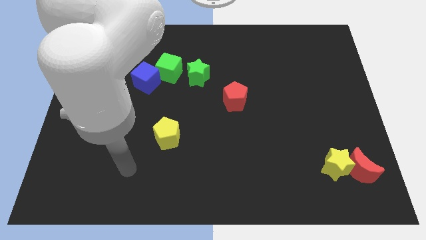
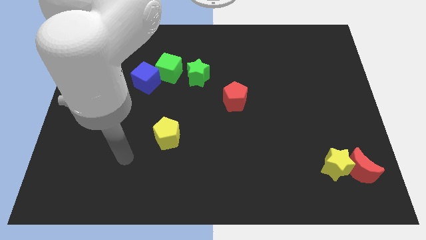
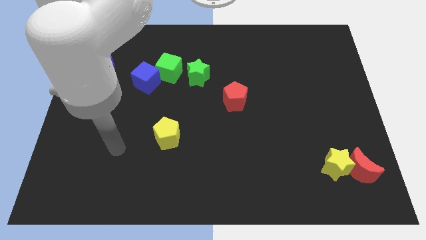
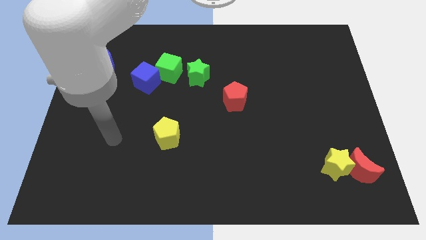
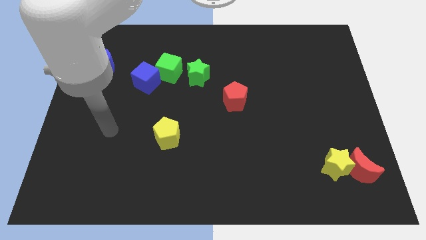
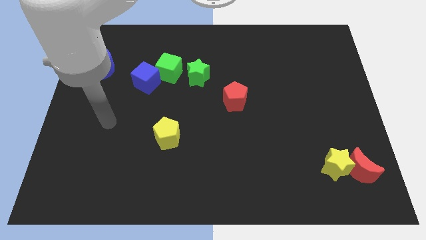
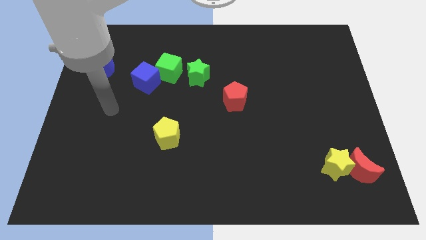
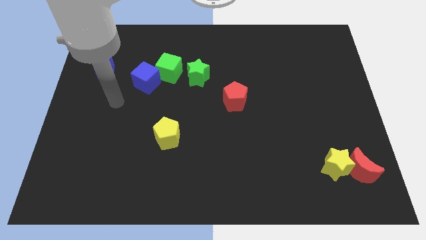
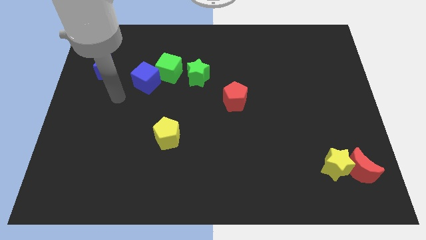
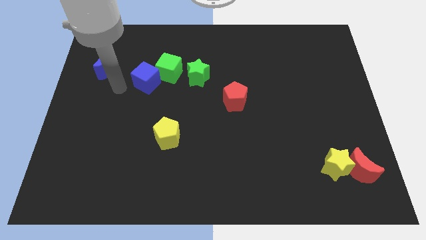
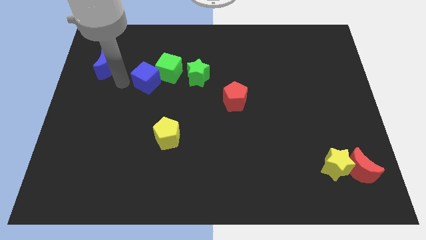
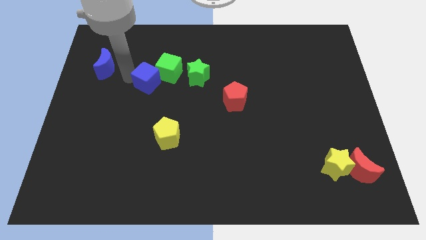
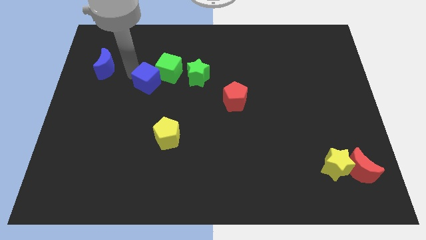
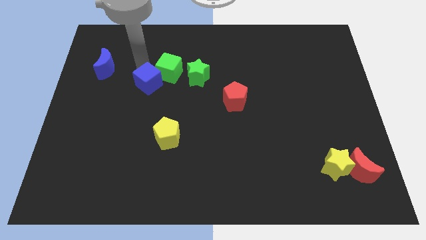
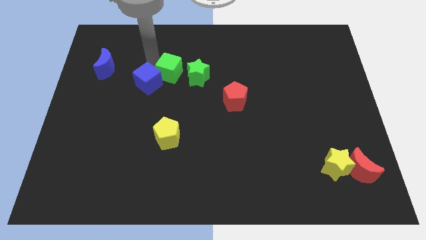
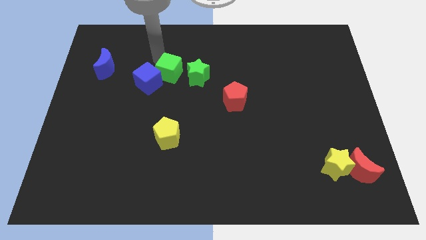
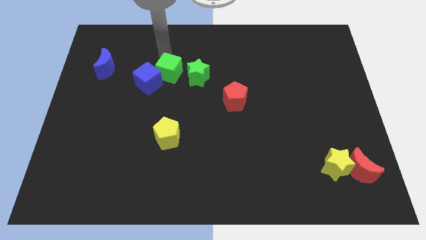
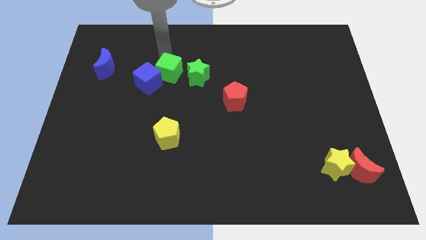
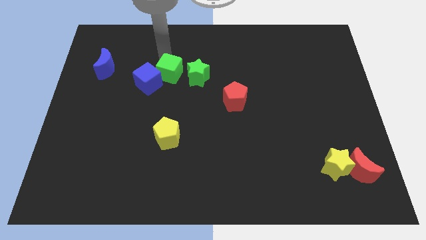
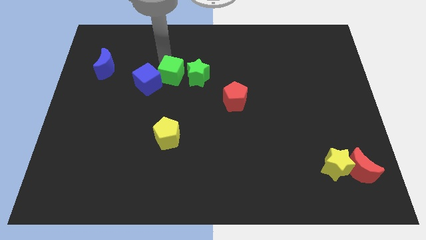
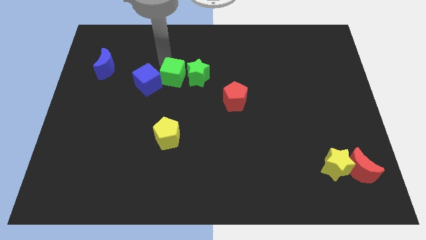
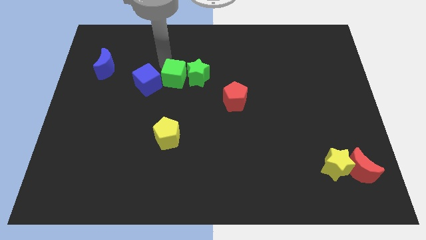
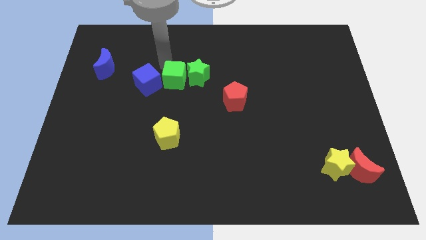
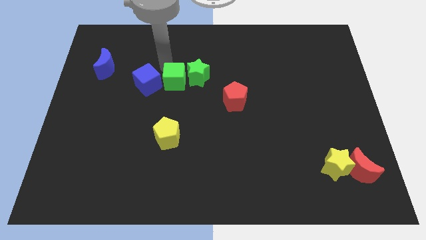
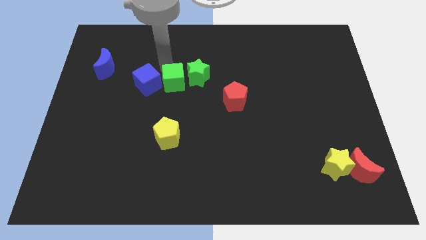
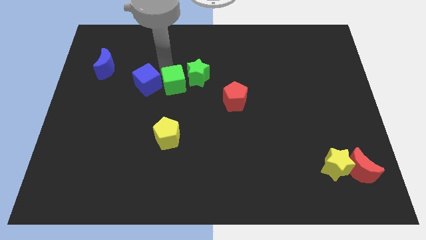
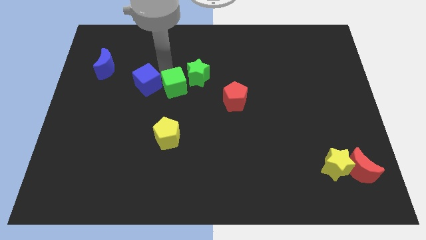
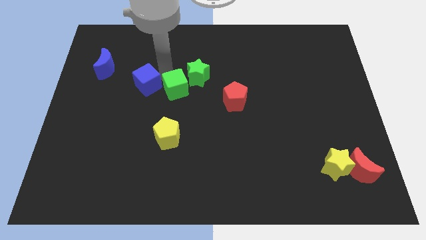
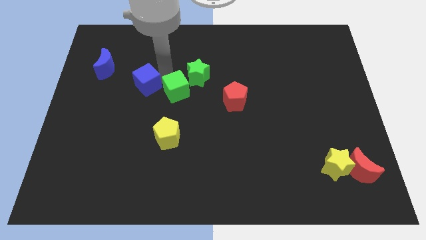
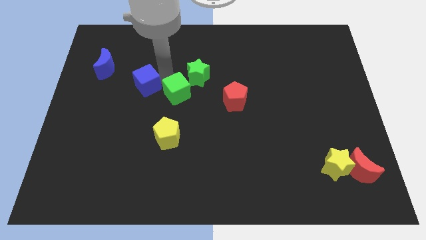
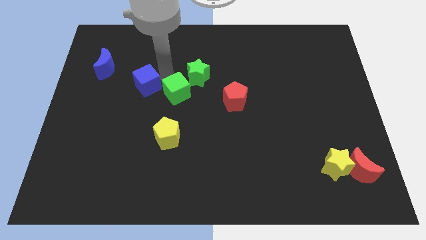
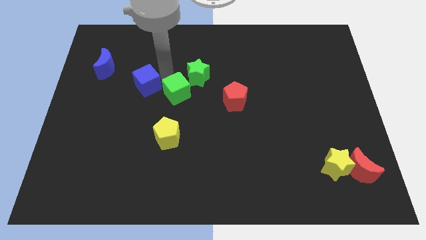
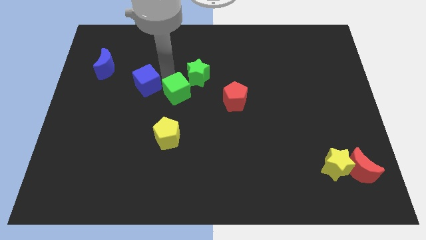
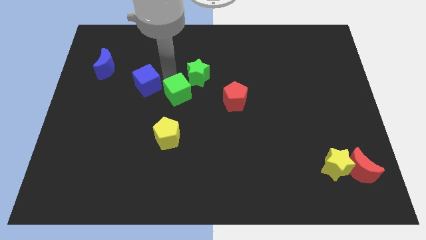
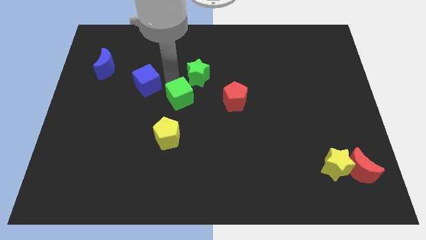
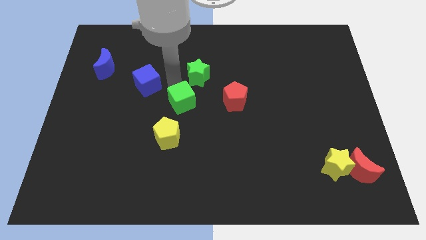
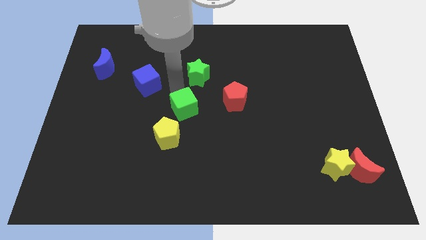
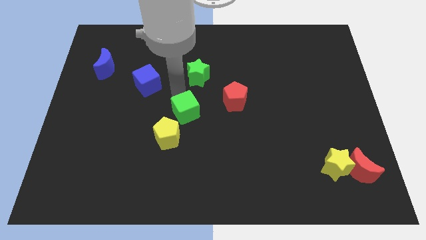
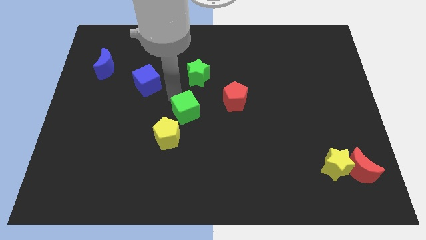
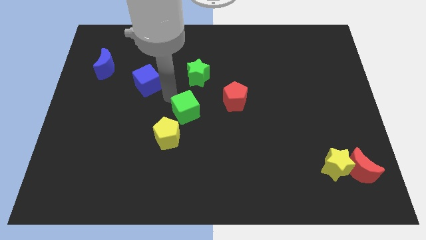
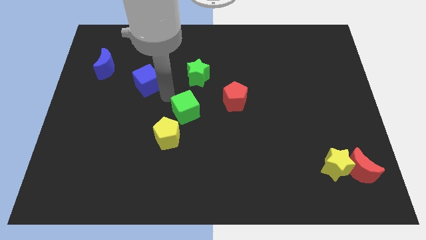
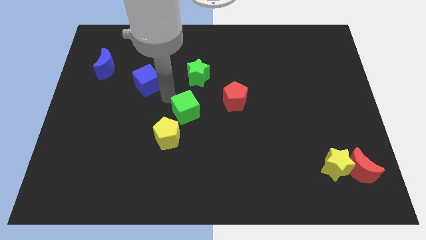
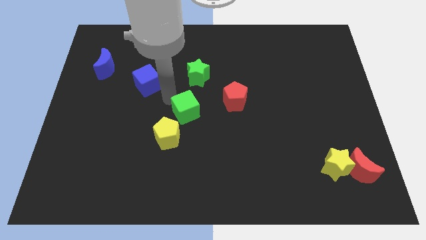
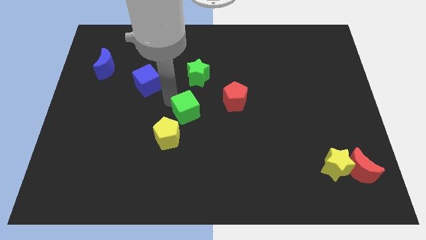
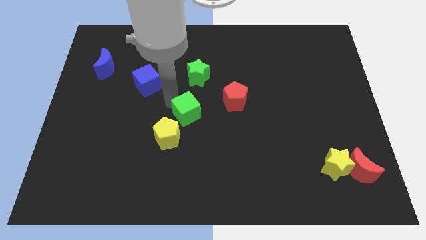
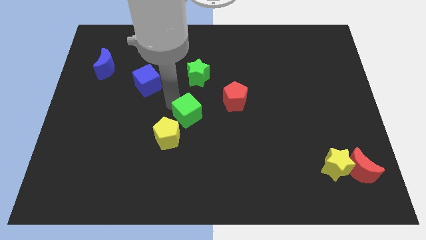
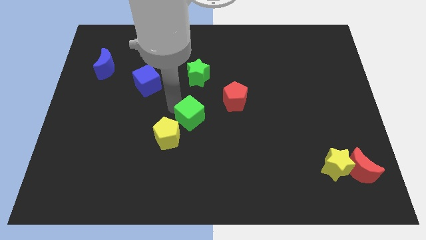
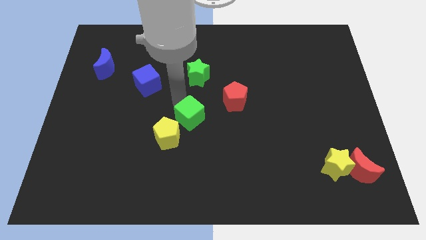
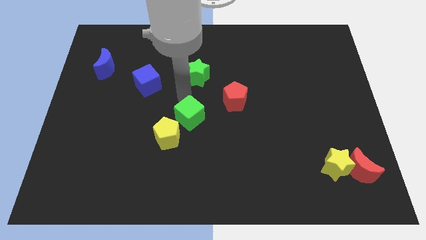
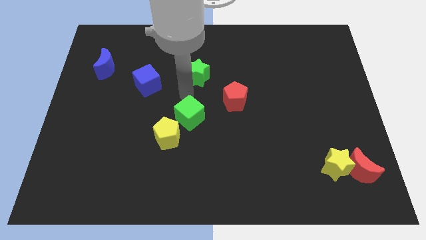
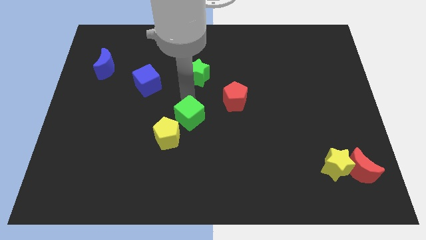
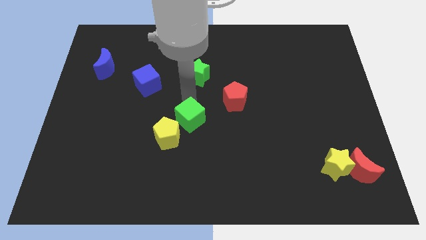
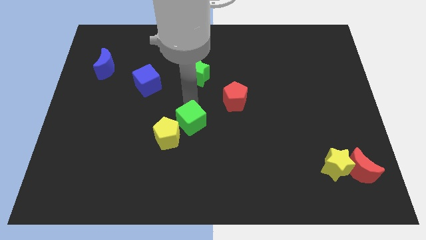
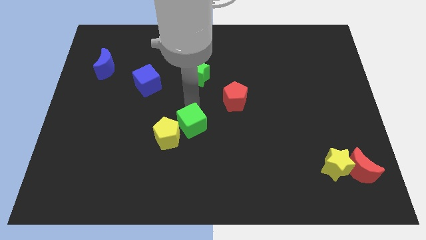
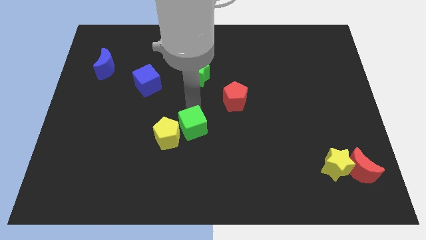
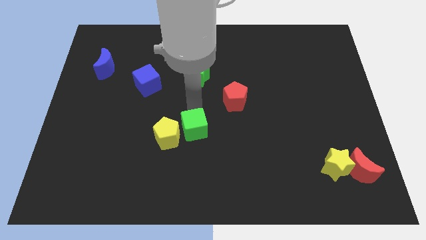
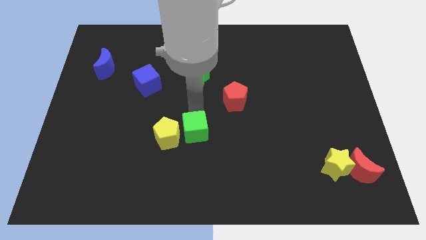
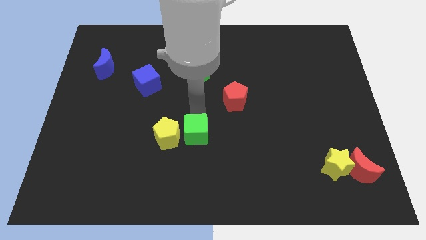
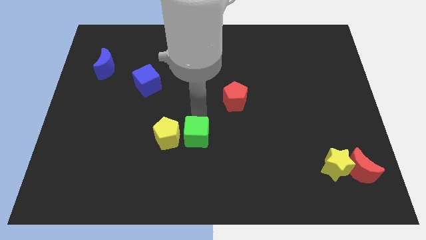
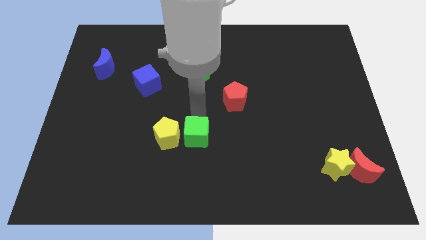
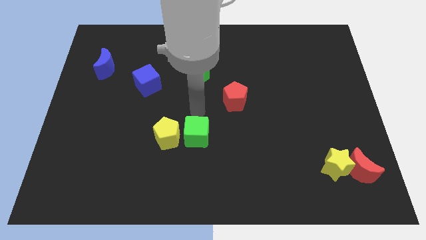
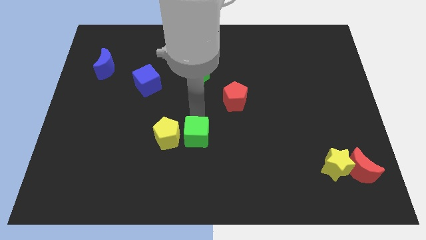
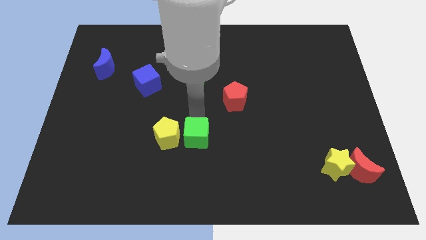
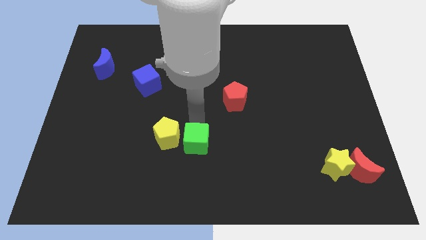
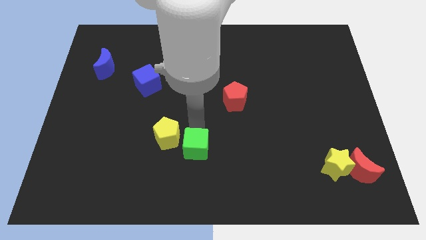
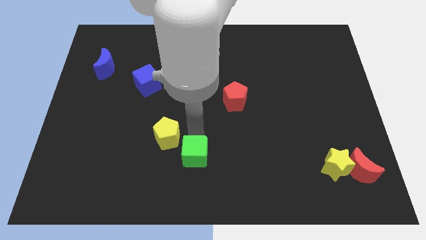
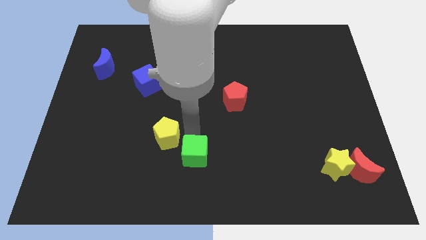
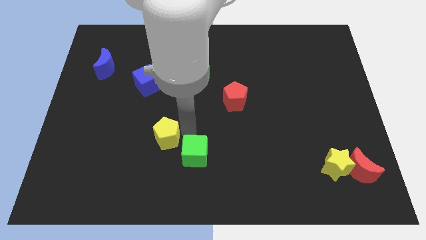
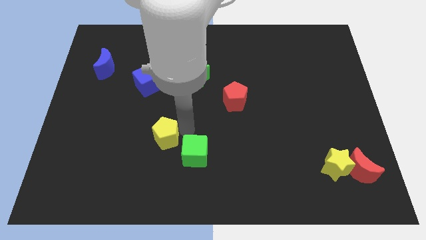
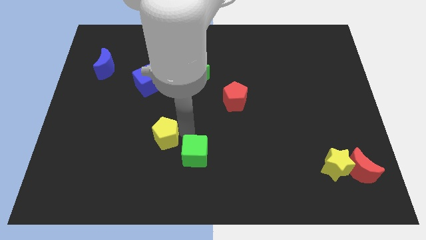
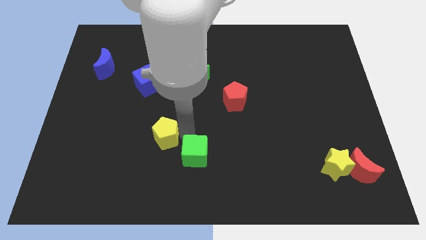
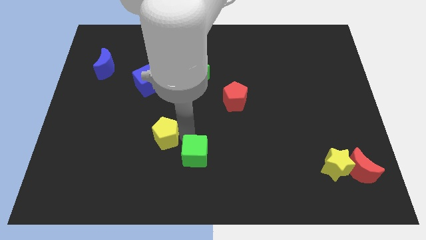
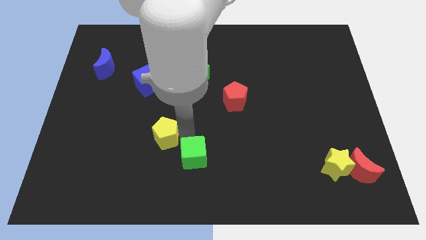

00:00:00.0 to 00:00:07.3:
move the green cube to the bottom side

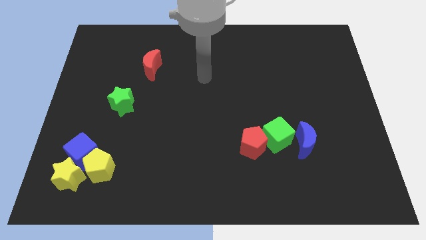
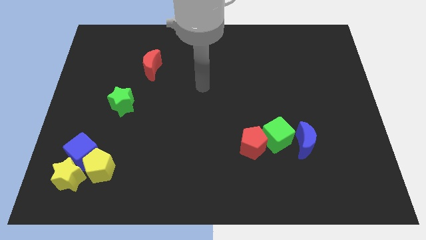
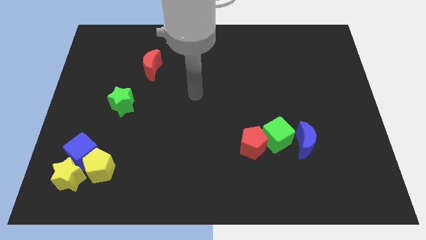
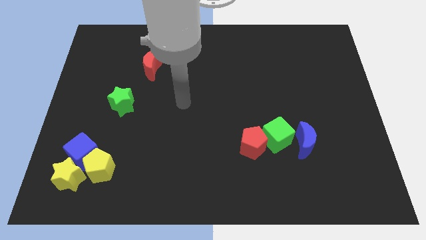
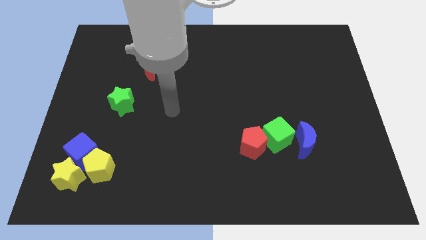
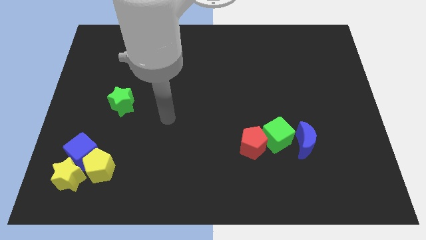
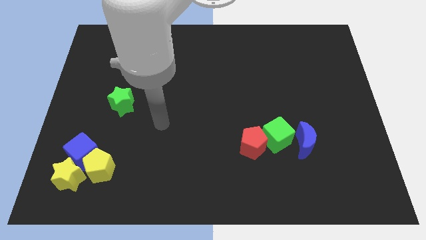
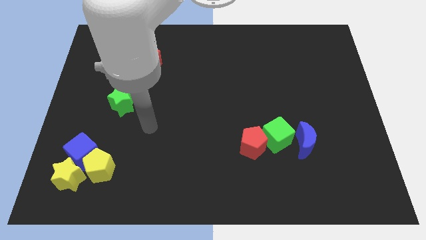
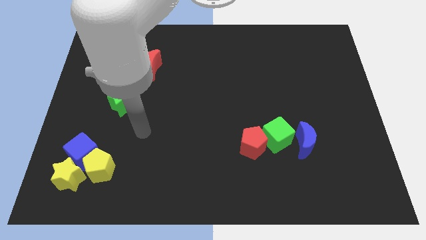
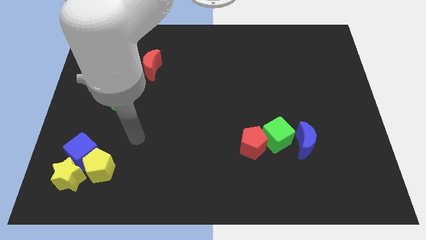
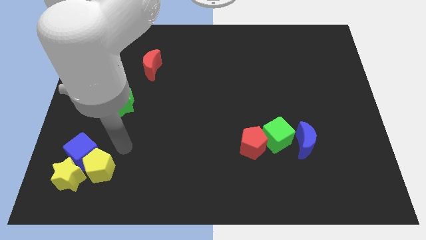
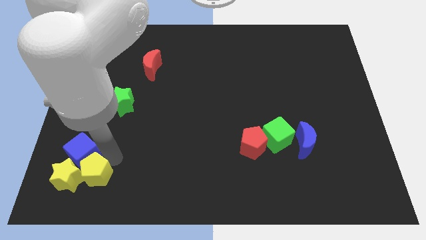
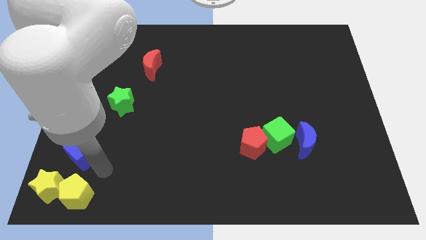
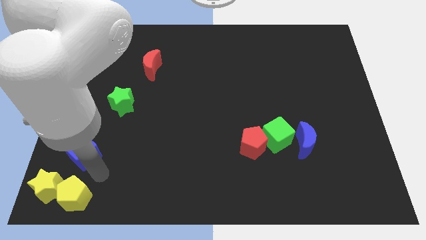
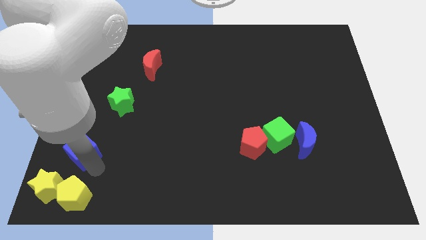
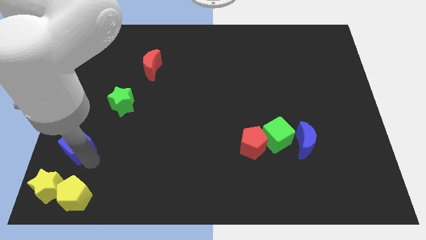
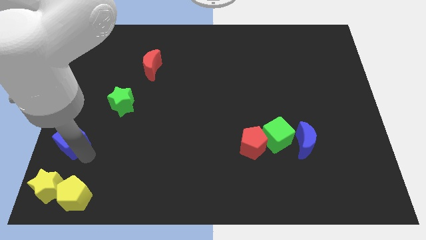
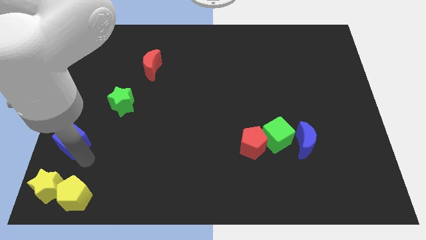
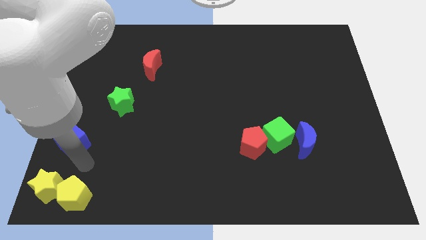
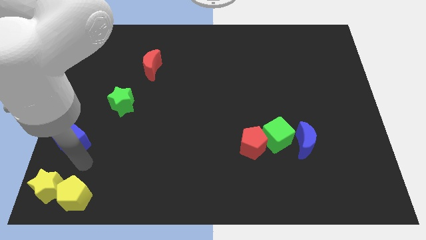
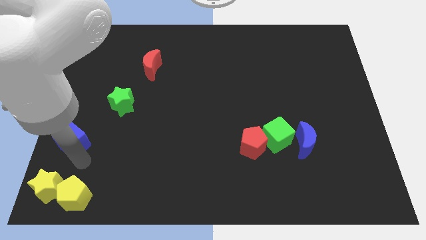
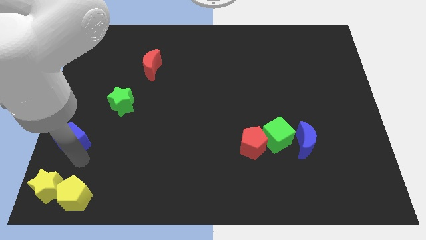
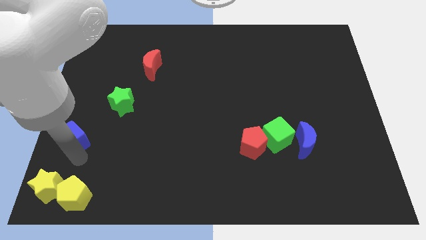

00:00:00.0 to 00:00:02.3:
slide the blue cube to the left side of the board
